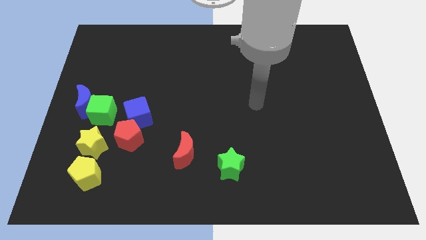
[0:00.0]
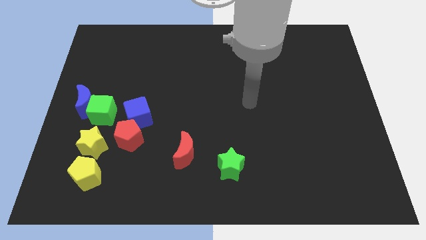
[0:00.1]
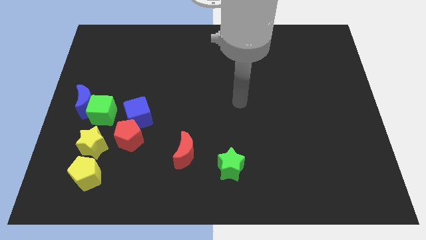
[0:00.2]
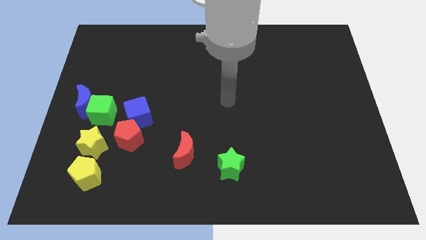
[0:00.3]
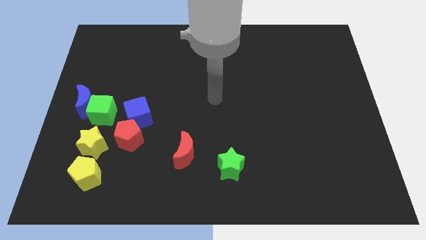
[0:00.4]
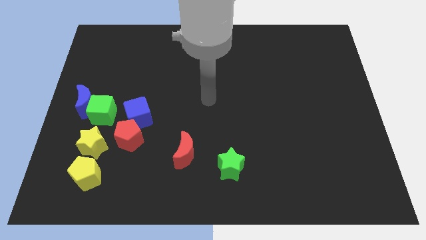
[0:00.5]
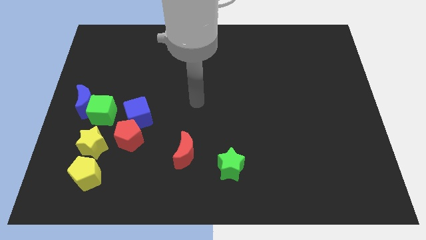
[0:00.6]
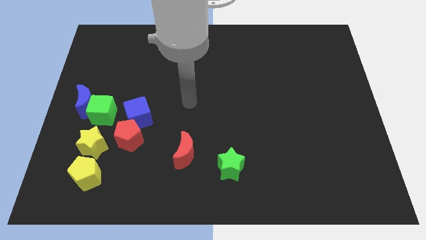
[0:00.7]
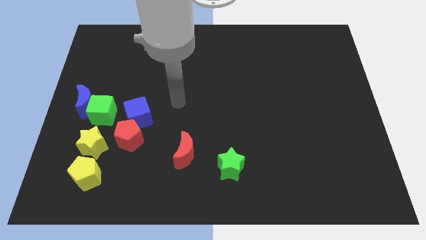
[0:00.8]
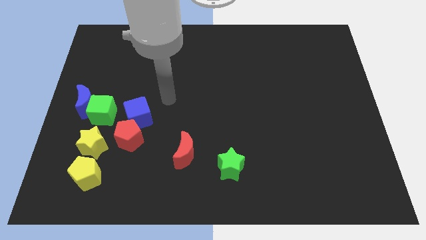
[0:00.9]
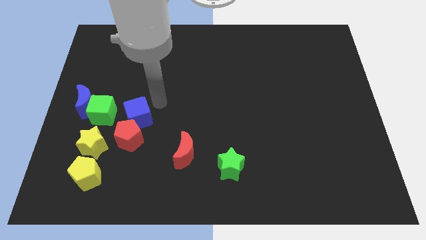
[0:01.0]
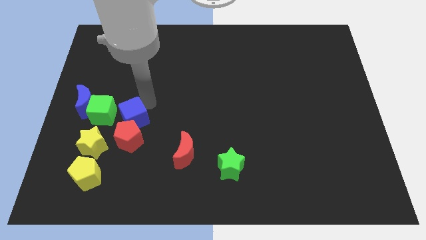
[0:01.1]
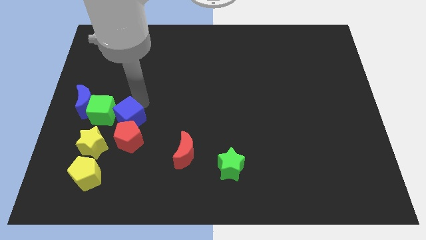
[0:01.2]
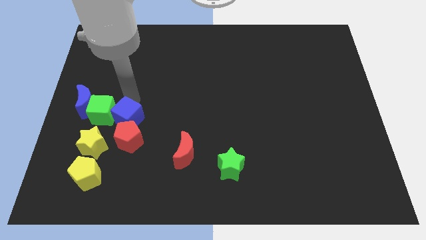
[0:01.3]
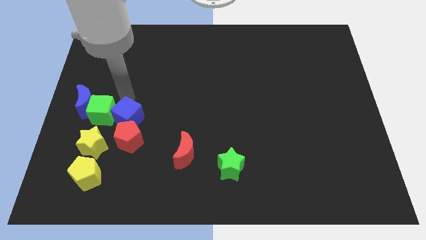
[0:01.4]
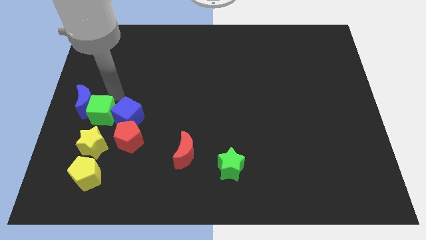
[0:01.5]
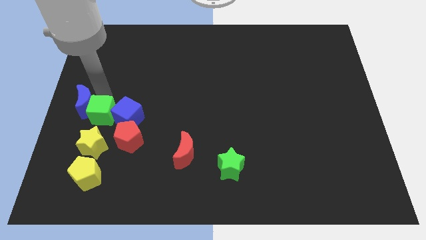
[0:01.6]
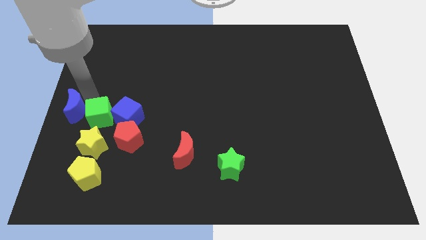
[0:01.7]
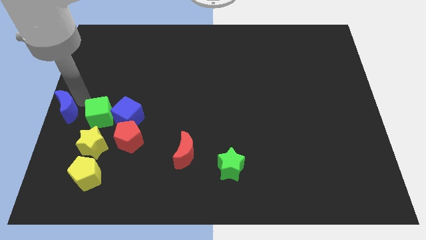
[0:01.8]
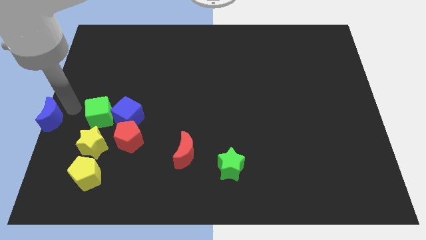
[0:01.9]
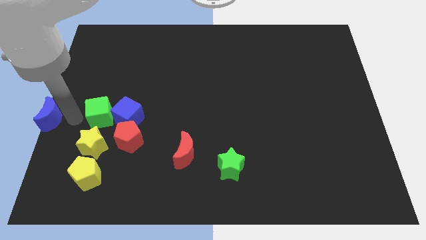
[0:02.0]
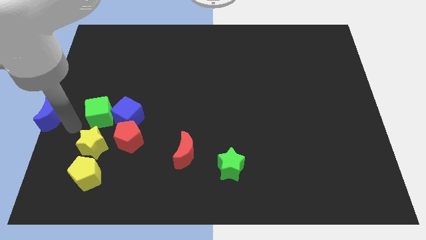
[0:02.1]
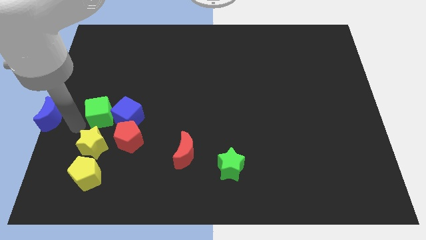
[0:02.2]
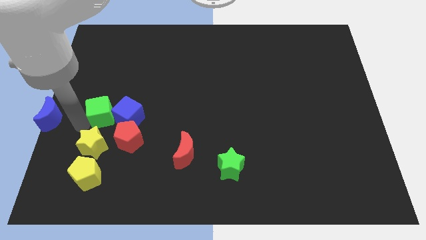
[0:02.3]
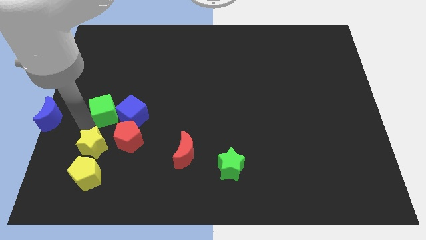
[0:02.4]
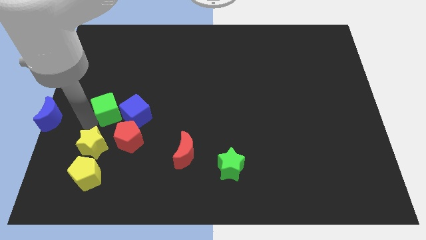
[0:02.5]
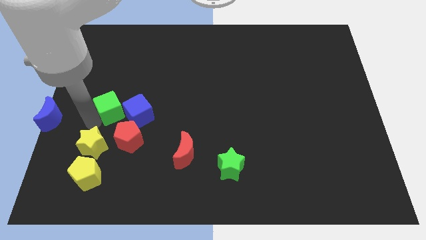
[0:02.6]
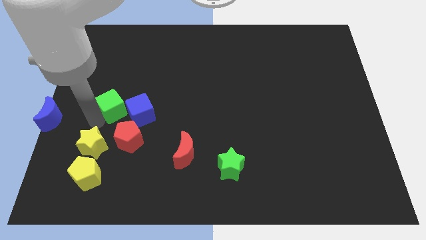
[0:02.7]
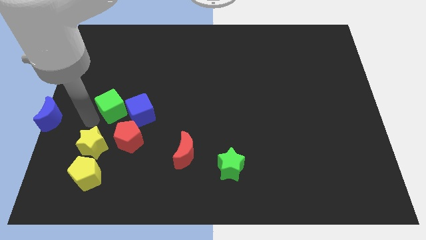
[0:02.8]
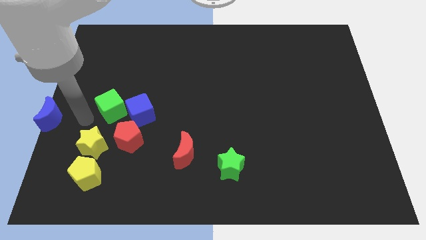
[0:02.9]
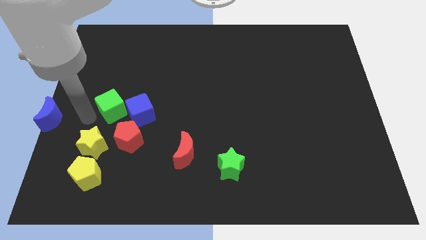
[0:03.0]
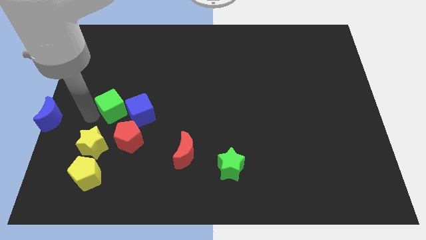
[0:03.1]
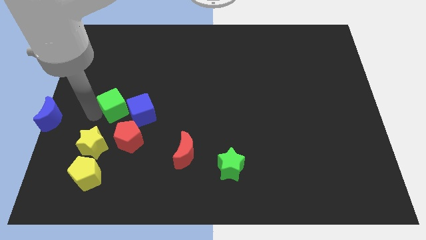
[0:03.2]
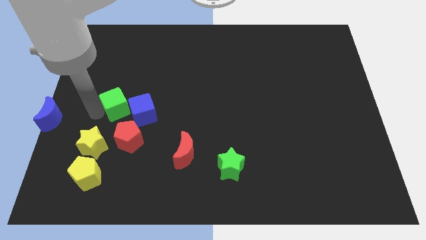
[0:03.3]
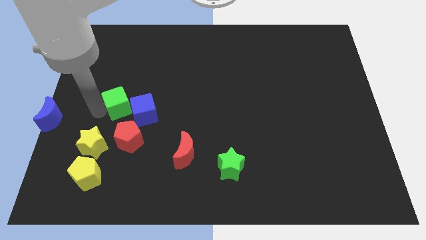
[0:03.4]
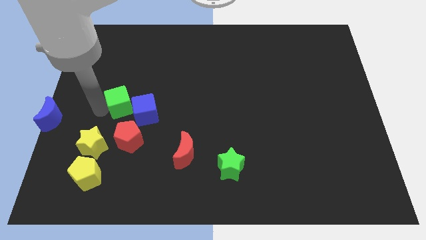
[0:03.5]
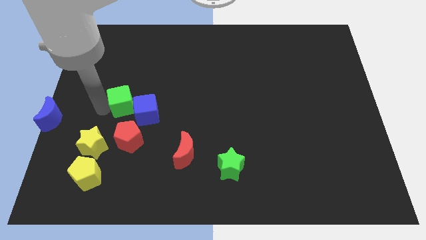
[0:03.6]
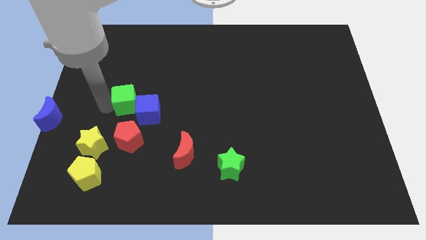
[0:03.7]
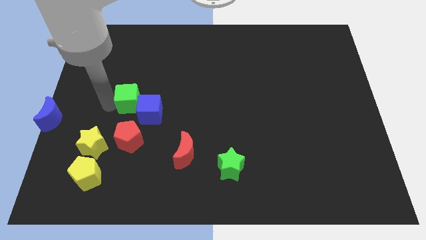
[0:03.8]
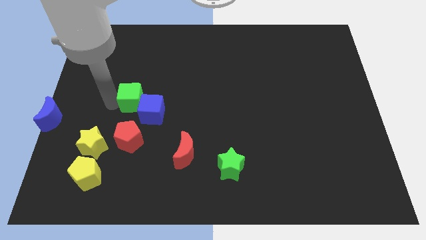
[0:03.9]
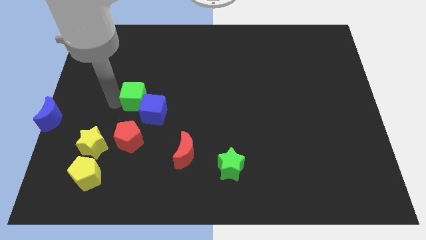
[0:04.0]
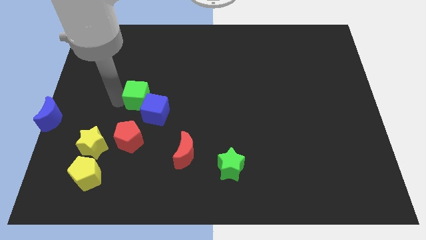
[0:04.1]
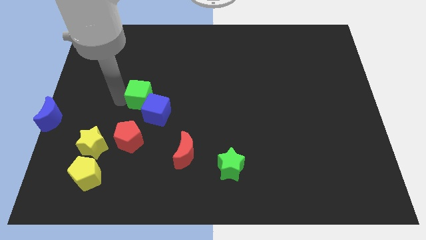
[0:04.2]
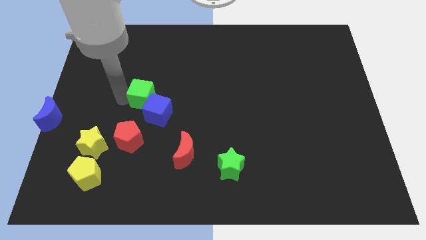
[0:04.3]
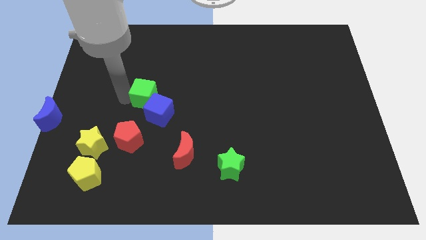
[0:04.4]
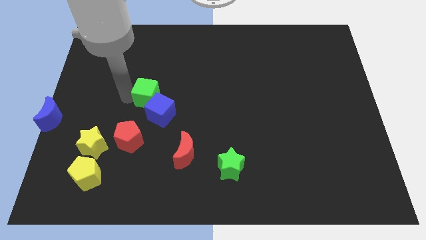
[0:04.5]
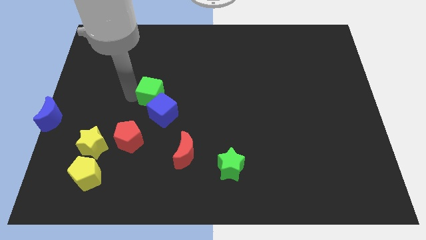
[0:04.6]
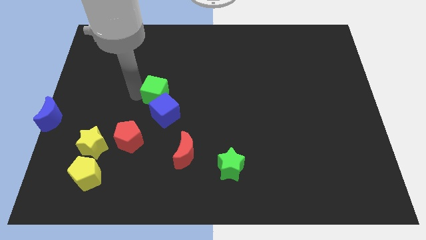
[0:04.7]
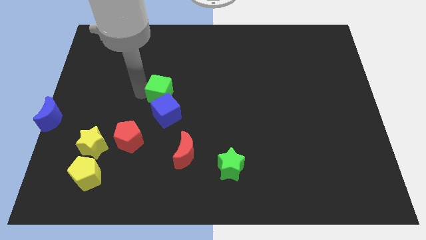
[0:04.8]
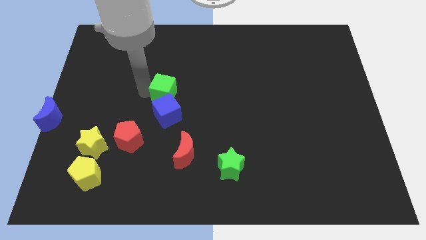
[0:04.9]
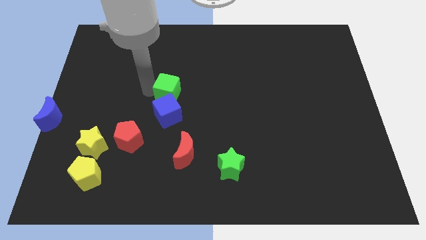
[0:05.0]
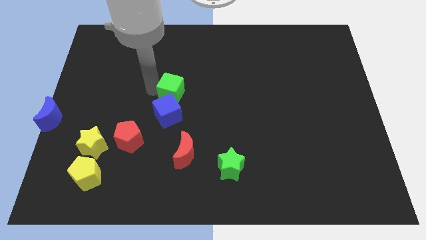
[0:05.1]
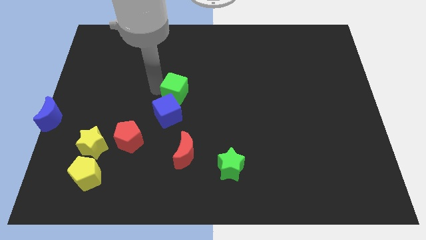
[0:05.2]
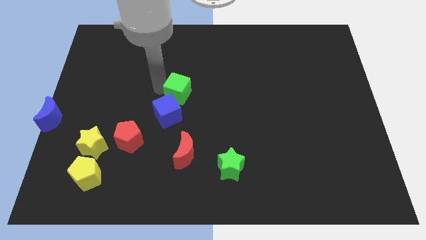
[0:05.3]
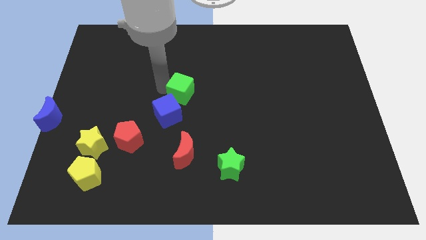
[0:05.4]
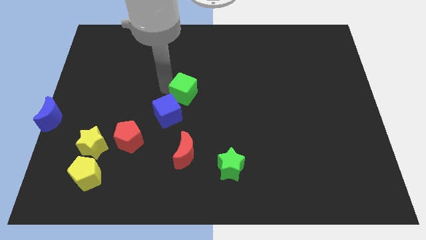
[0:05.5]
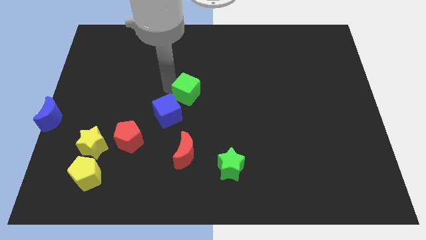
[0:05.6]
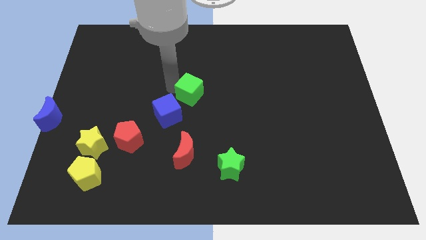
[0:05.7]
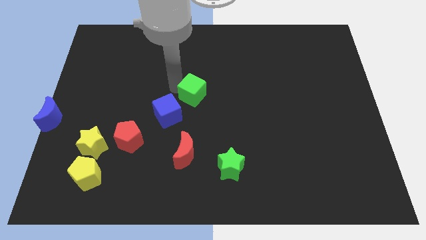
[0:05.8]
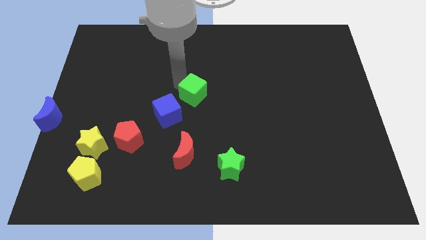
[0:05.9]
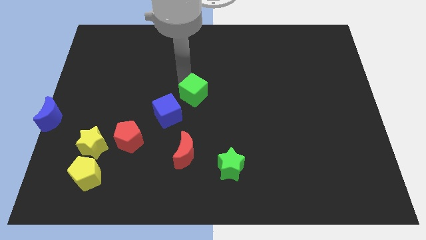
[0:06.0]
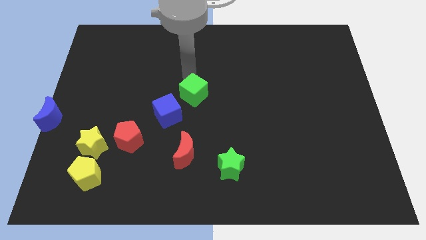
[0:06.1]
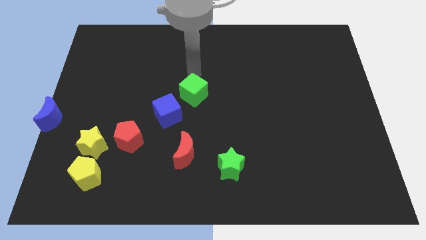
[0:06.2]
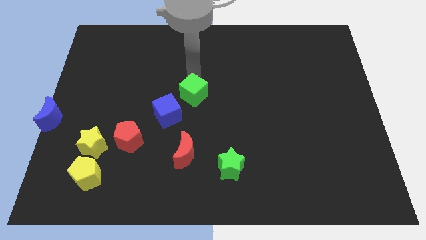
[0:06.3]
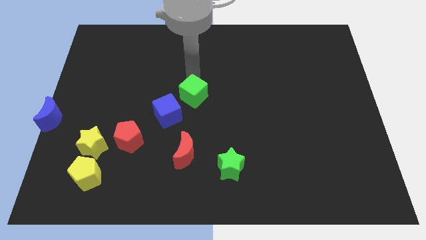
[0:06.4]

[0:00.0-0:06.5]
push the green cube right

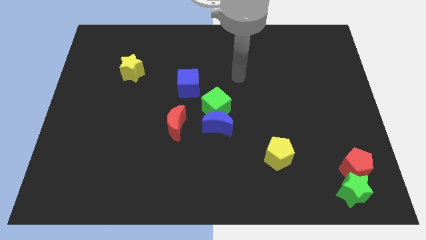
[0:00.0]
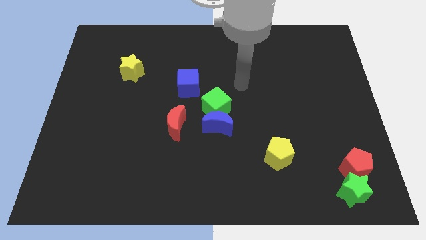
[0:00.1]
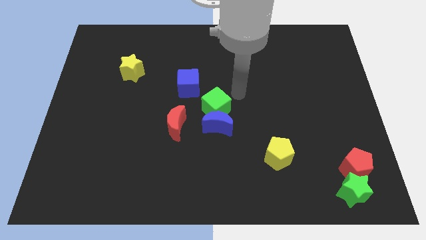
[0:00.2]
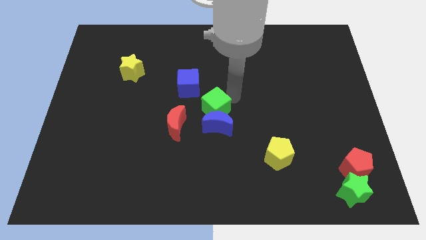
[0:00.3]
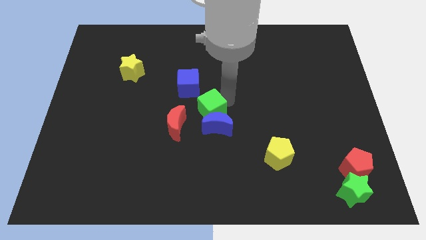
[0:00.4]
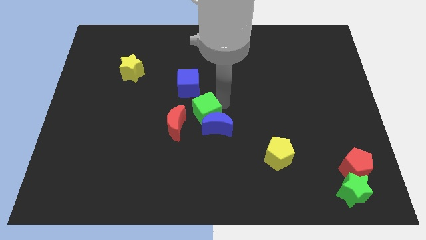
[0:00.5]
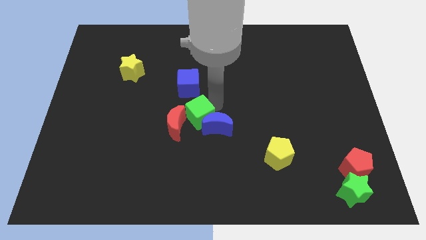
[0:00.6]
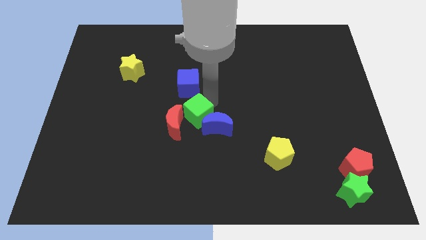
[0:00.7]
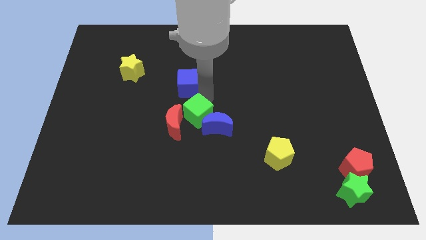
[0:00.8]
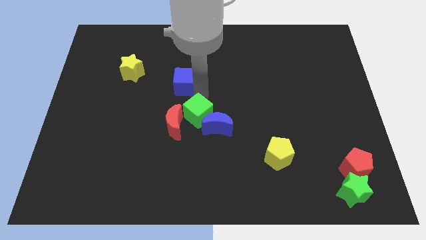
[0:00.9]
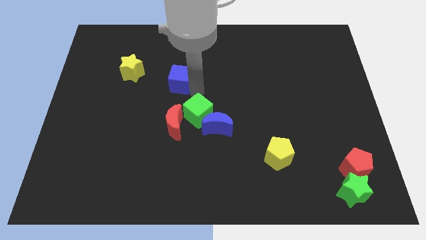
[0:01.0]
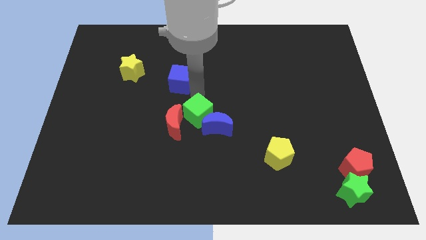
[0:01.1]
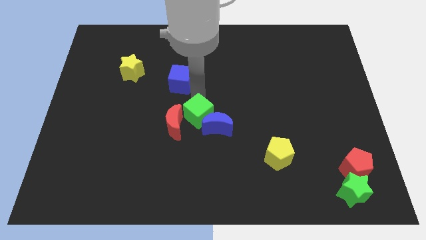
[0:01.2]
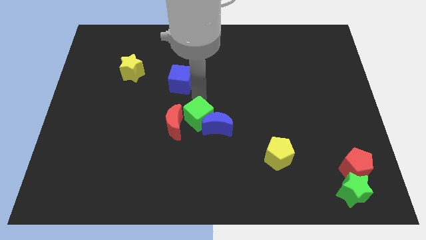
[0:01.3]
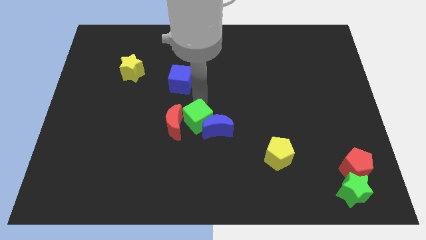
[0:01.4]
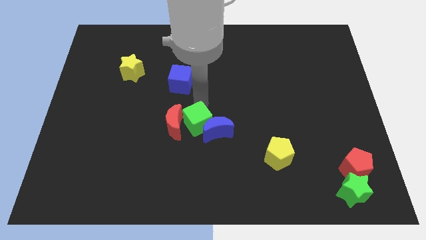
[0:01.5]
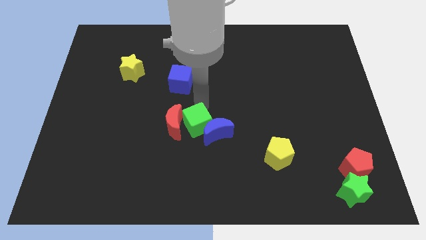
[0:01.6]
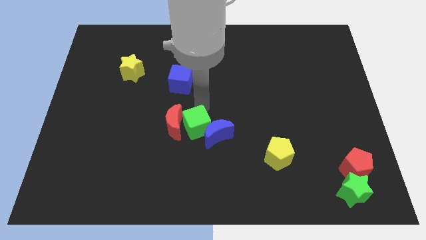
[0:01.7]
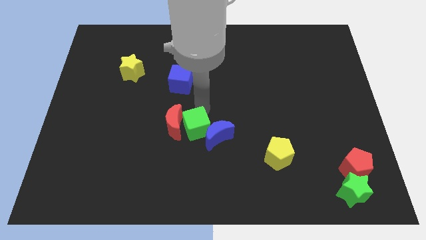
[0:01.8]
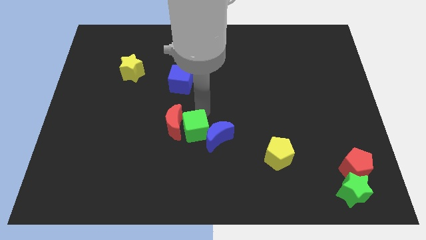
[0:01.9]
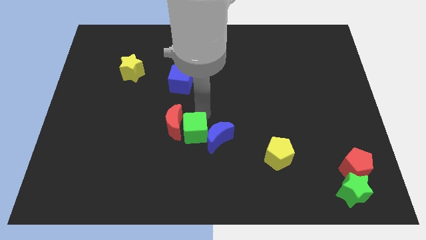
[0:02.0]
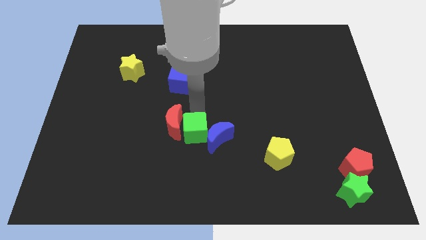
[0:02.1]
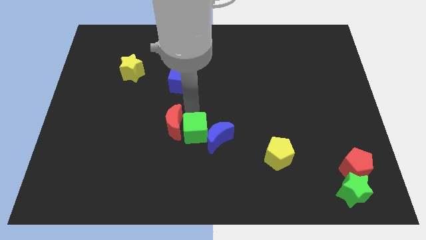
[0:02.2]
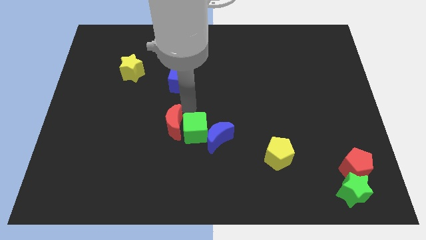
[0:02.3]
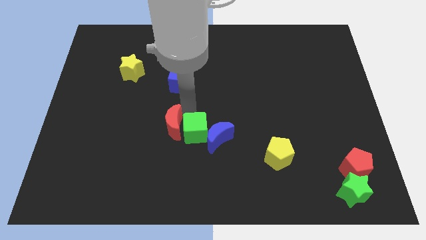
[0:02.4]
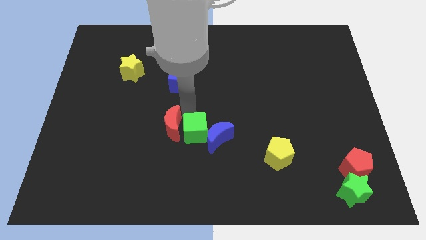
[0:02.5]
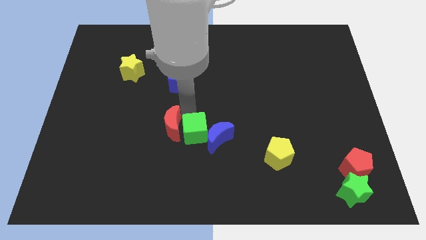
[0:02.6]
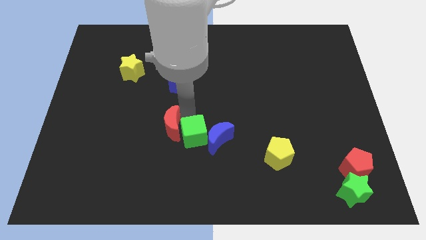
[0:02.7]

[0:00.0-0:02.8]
push the green cube down a little
